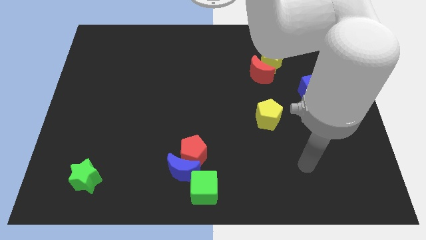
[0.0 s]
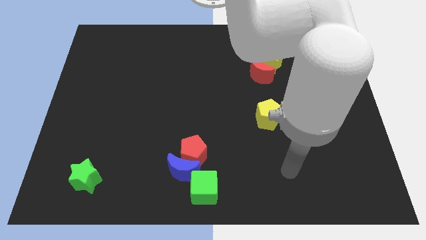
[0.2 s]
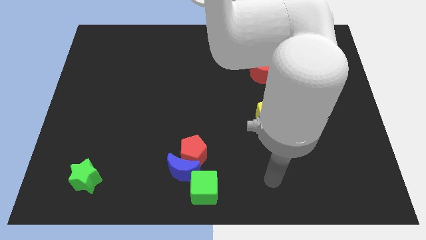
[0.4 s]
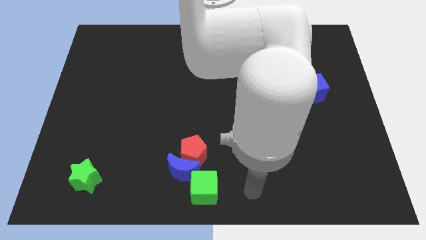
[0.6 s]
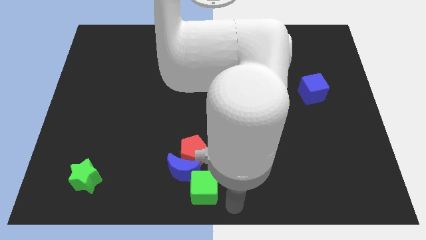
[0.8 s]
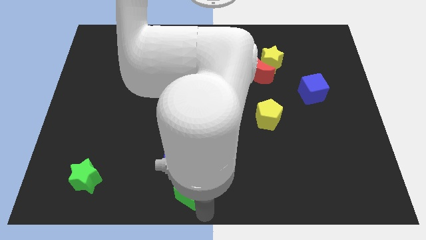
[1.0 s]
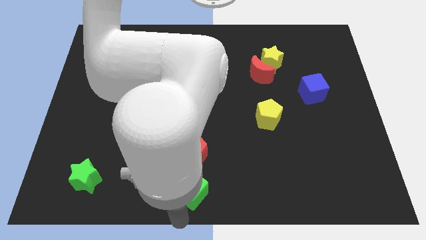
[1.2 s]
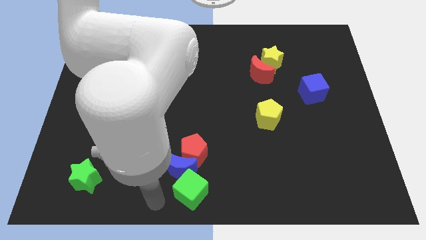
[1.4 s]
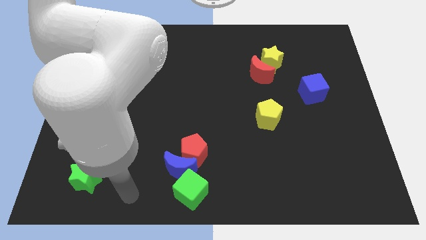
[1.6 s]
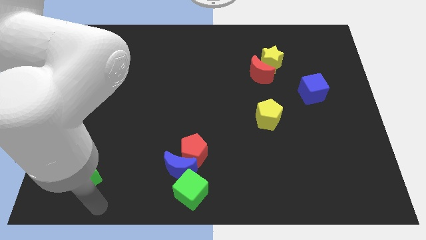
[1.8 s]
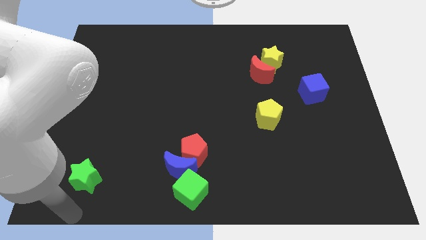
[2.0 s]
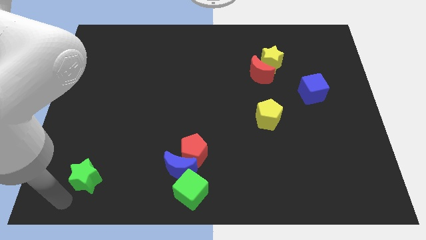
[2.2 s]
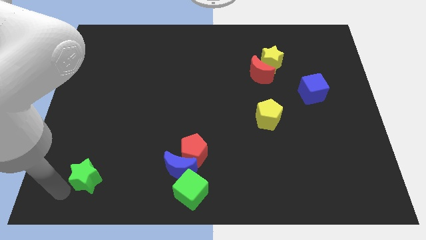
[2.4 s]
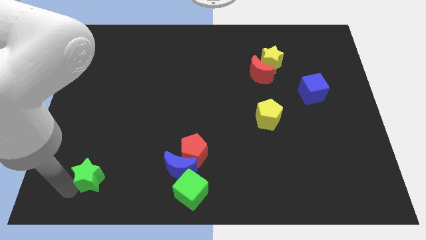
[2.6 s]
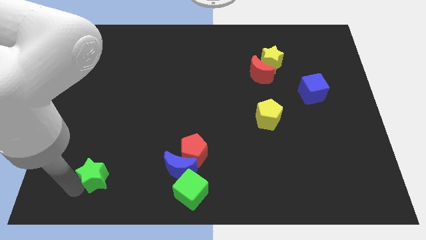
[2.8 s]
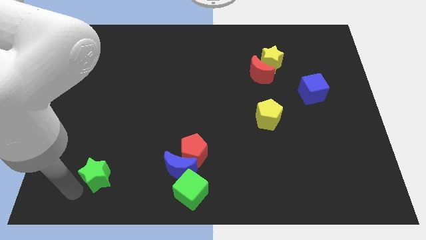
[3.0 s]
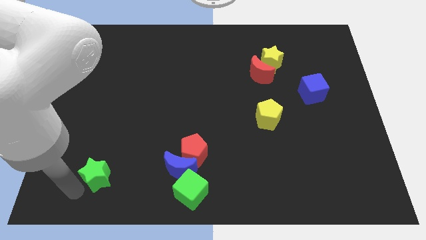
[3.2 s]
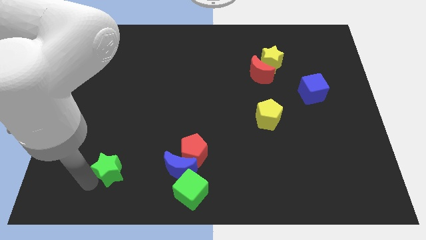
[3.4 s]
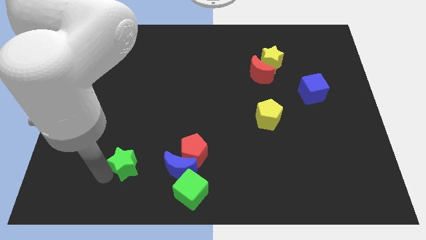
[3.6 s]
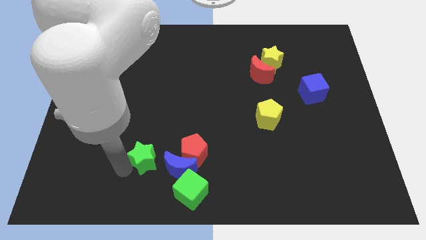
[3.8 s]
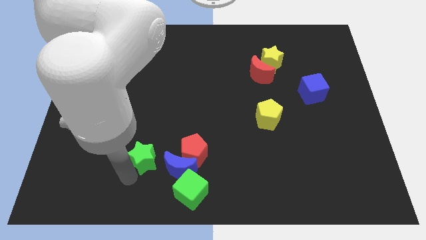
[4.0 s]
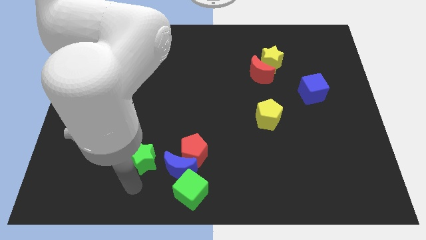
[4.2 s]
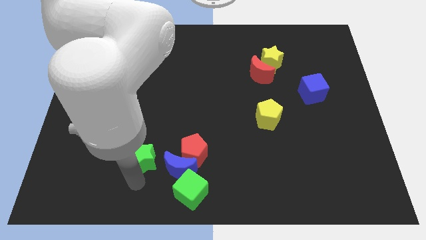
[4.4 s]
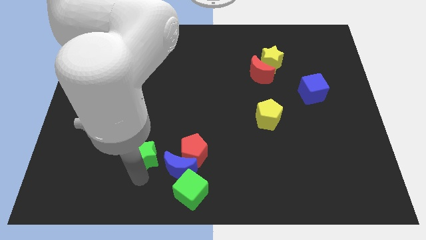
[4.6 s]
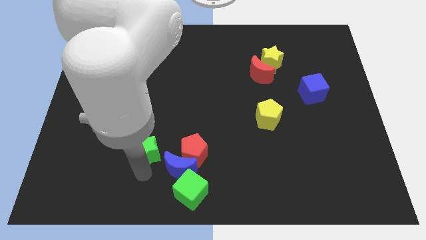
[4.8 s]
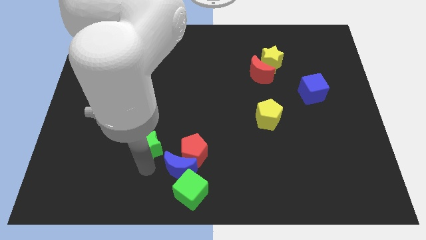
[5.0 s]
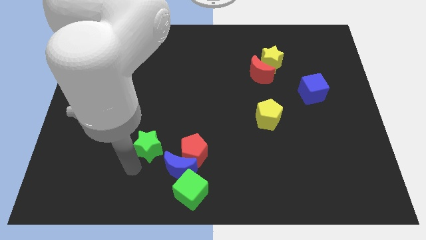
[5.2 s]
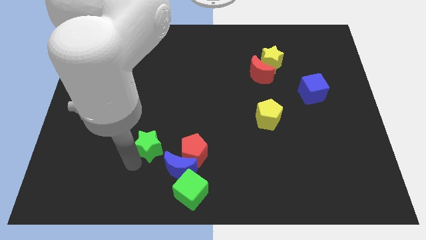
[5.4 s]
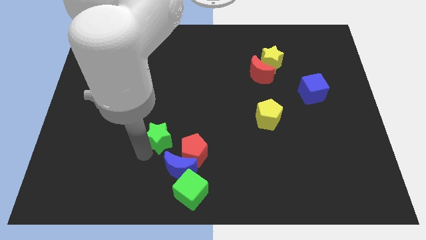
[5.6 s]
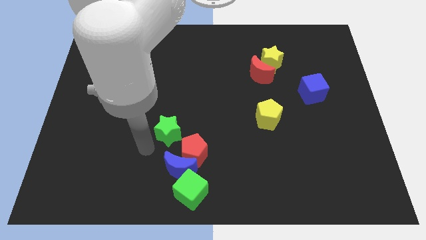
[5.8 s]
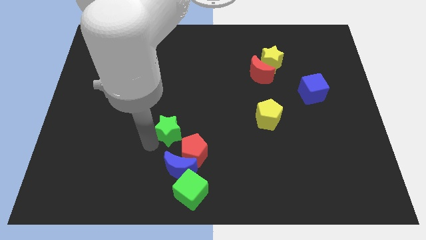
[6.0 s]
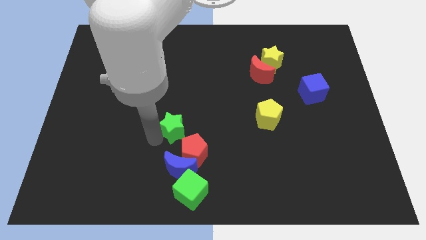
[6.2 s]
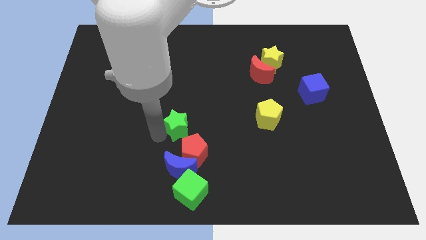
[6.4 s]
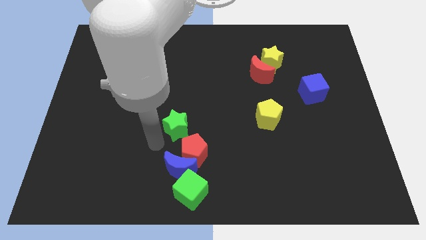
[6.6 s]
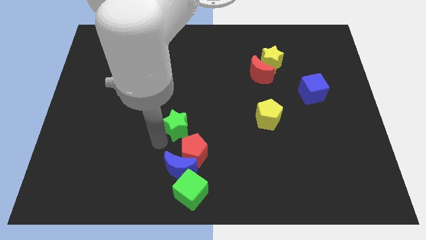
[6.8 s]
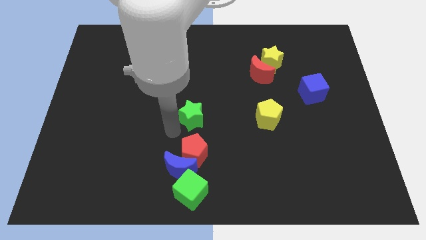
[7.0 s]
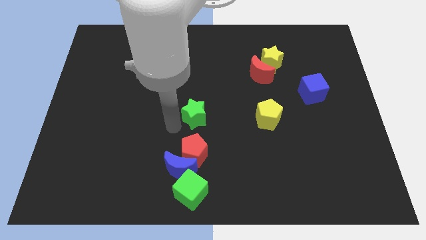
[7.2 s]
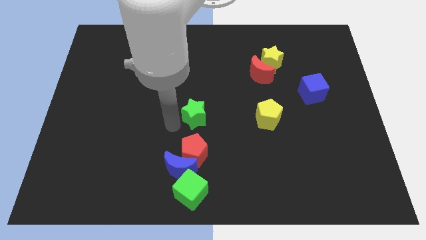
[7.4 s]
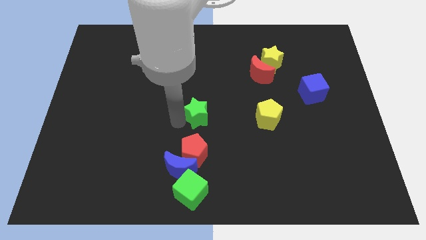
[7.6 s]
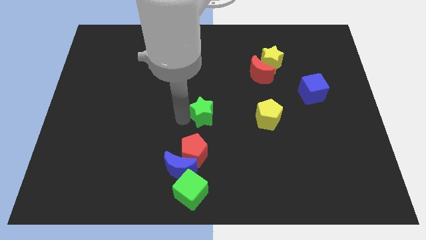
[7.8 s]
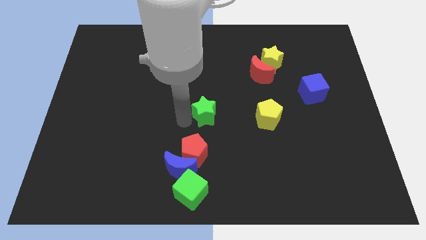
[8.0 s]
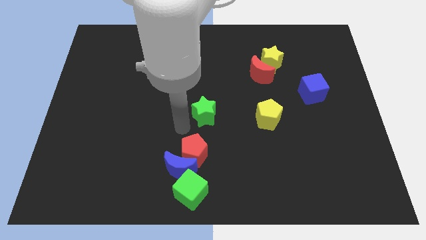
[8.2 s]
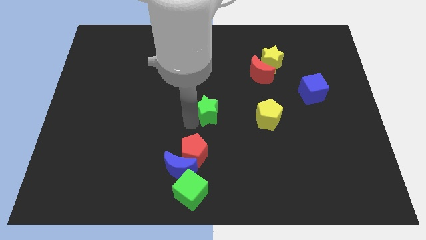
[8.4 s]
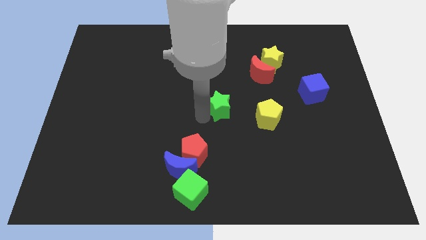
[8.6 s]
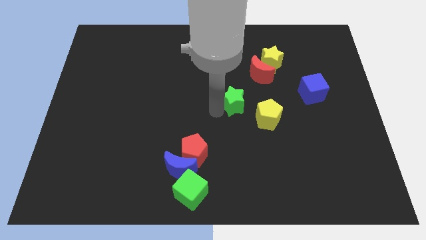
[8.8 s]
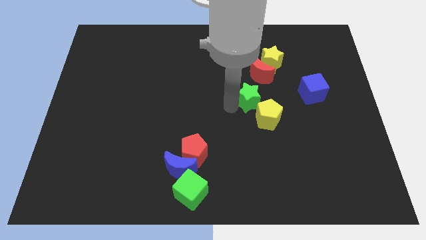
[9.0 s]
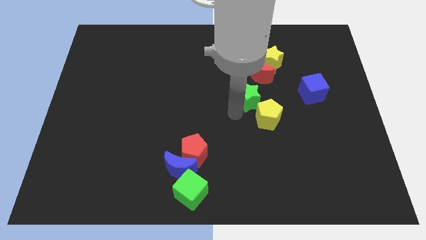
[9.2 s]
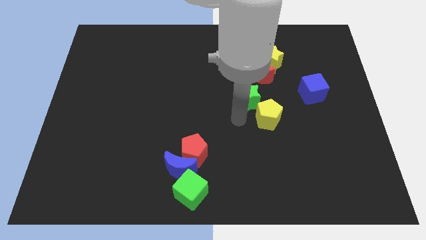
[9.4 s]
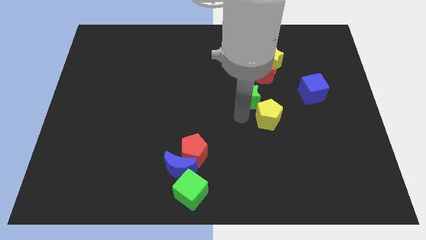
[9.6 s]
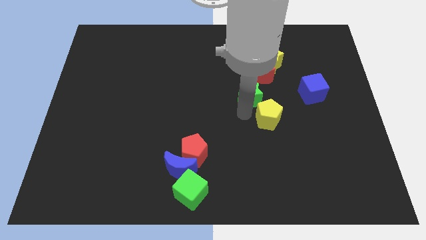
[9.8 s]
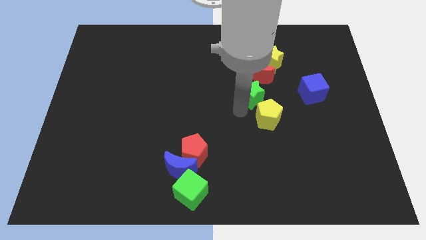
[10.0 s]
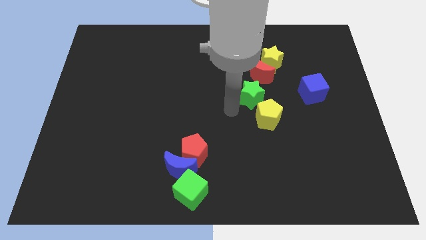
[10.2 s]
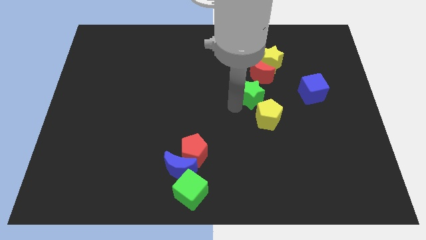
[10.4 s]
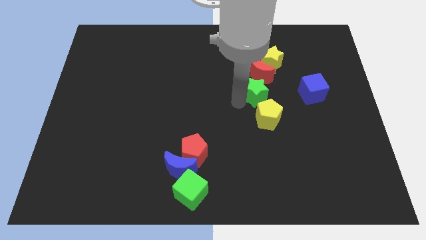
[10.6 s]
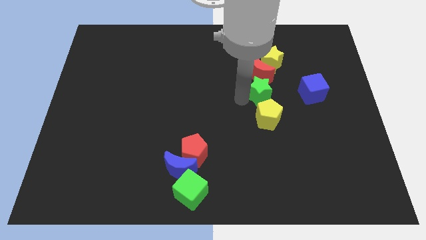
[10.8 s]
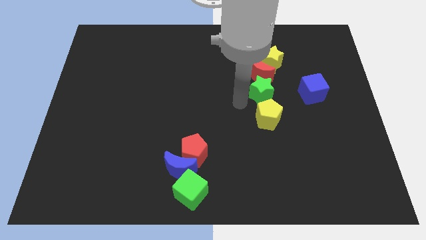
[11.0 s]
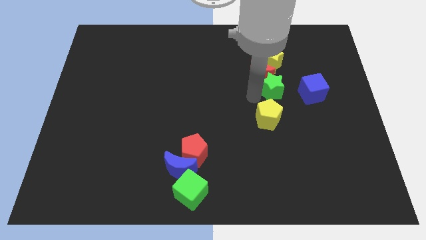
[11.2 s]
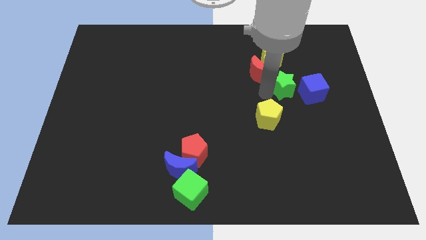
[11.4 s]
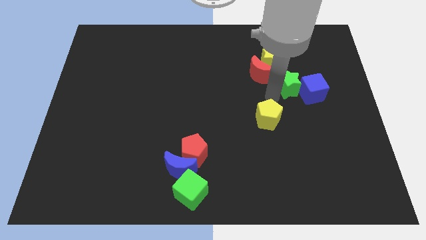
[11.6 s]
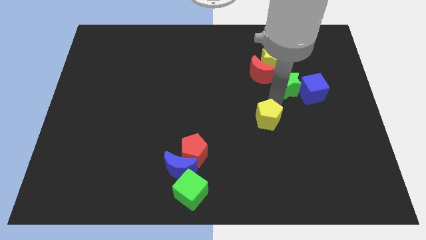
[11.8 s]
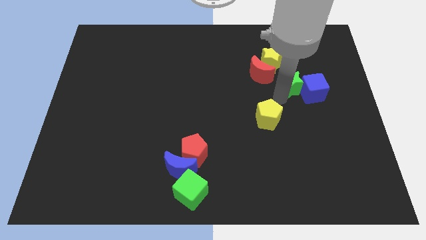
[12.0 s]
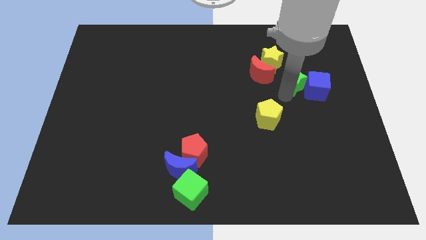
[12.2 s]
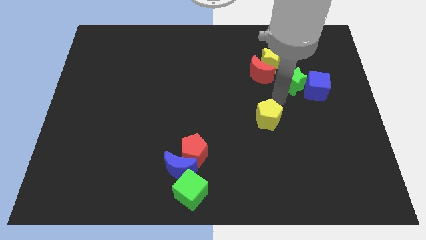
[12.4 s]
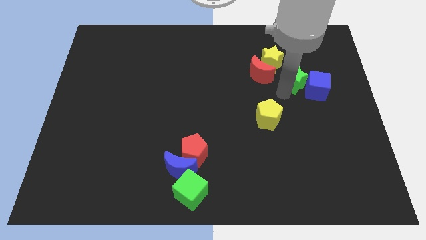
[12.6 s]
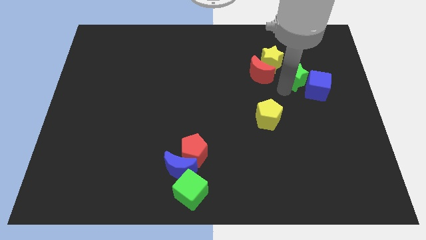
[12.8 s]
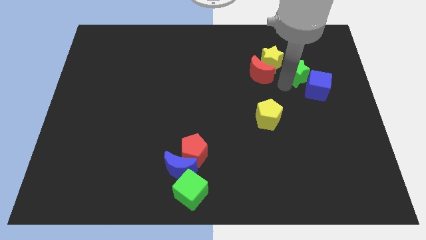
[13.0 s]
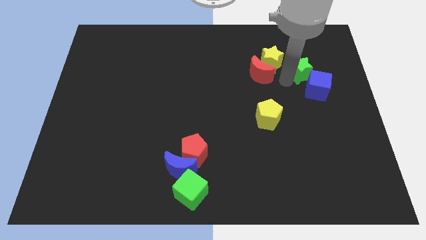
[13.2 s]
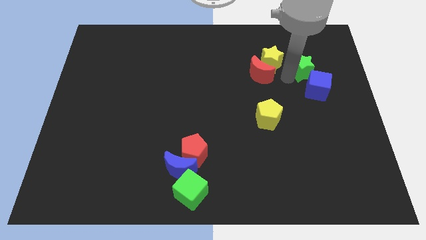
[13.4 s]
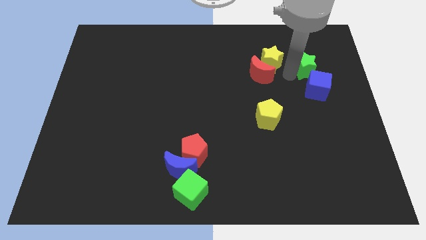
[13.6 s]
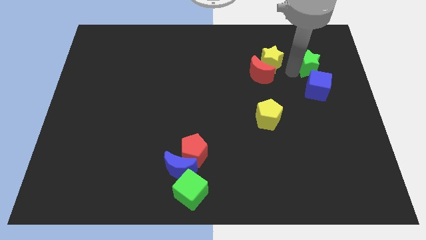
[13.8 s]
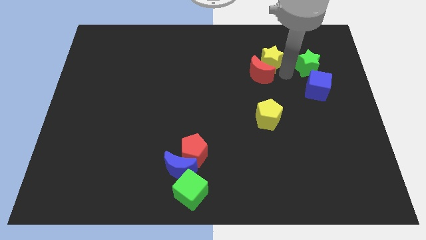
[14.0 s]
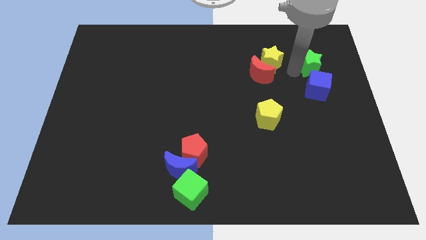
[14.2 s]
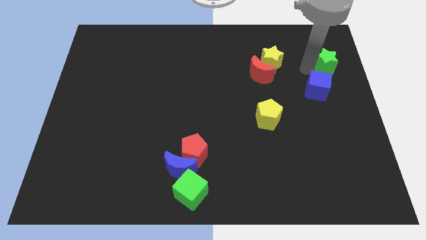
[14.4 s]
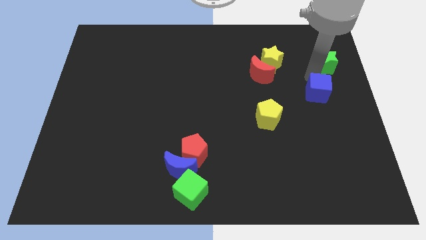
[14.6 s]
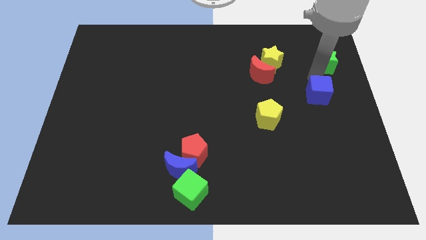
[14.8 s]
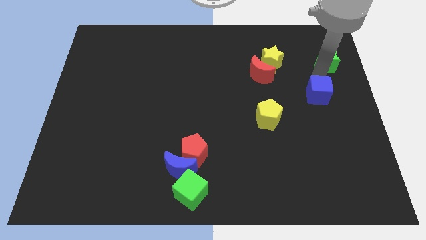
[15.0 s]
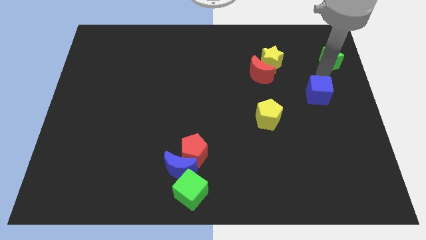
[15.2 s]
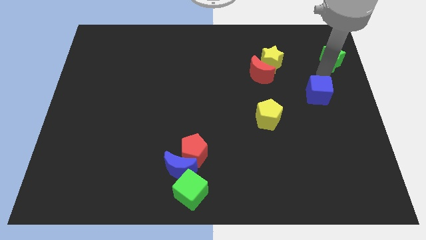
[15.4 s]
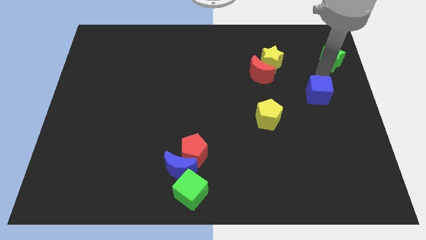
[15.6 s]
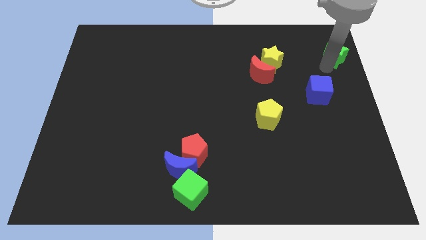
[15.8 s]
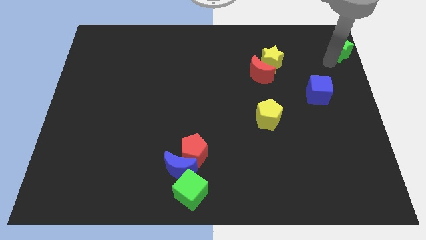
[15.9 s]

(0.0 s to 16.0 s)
move the green star to the top right of the board
